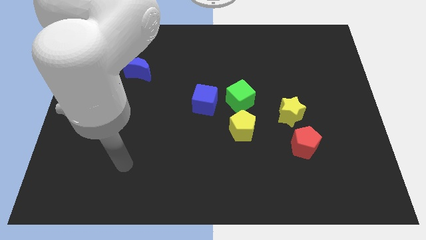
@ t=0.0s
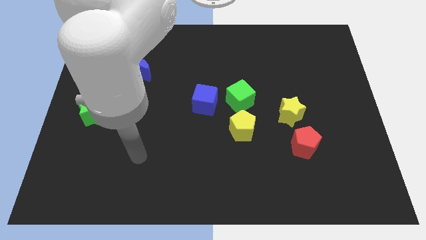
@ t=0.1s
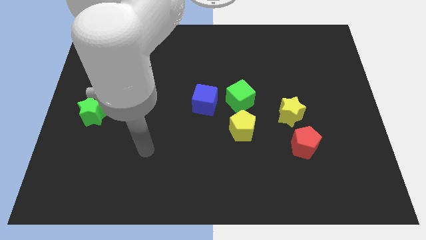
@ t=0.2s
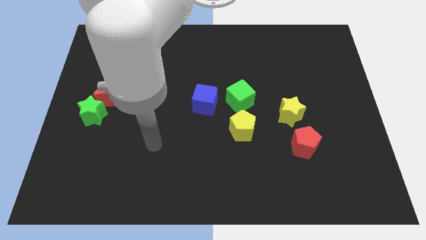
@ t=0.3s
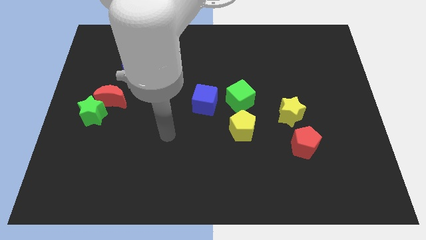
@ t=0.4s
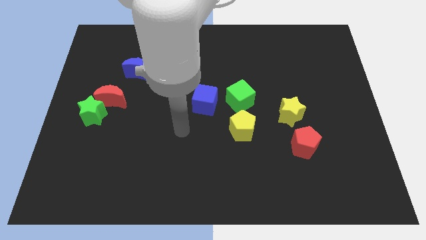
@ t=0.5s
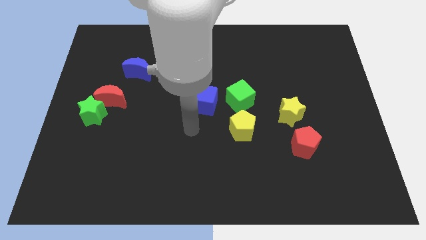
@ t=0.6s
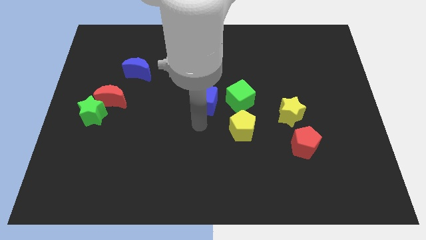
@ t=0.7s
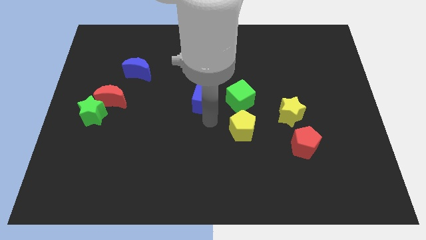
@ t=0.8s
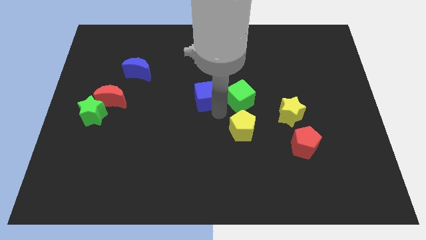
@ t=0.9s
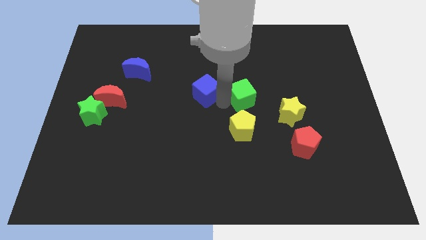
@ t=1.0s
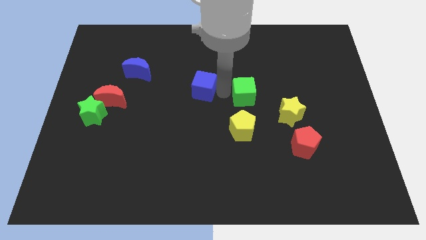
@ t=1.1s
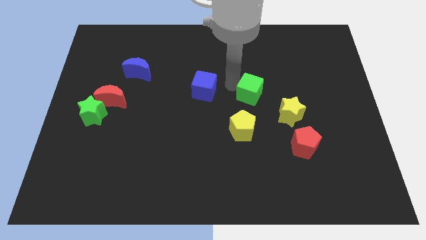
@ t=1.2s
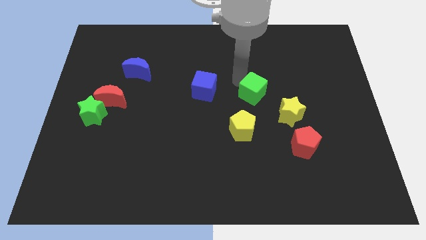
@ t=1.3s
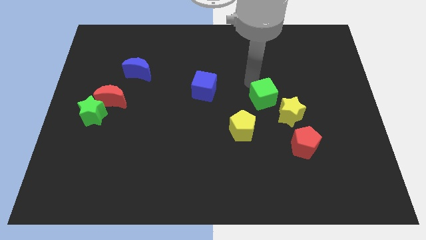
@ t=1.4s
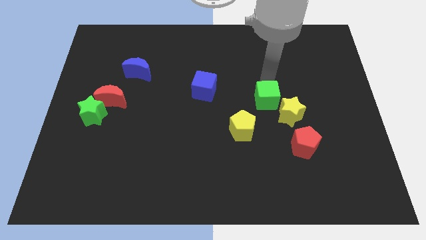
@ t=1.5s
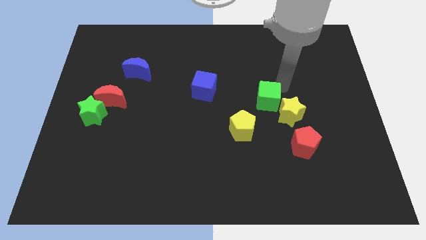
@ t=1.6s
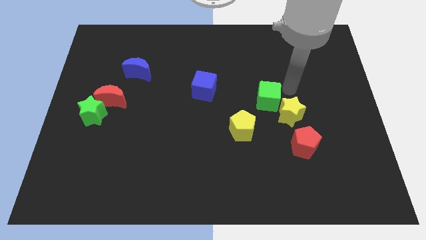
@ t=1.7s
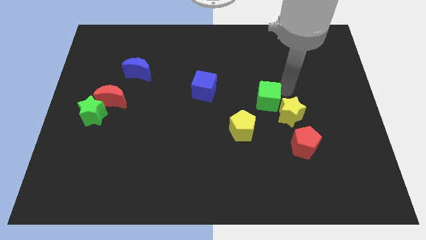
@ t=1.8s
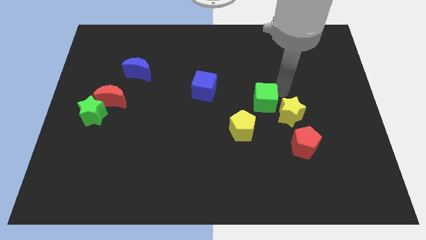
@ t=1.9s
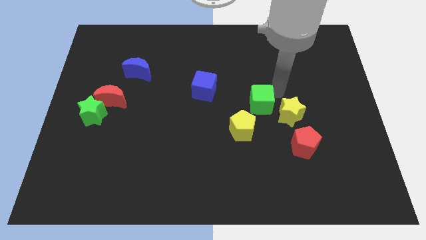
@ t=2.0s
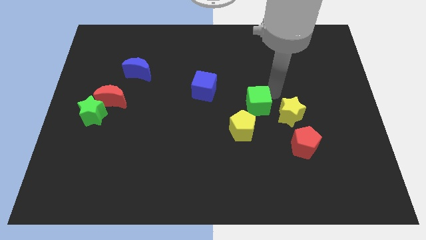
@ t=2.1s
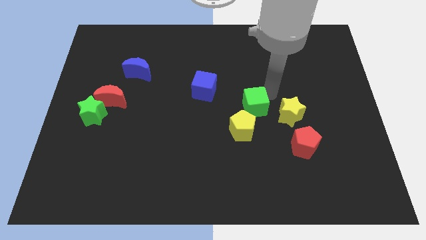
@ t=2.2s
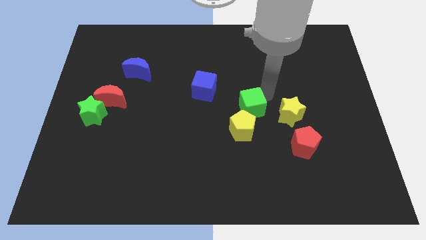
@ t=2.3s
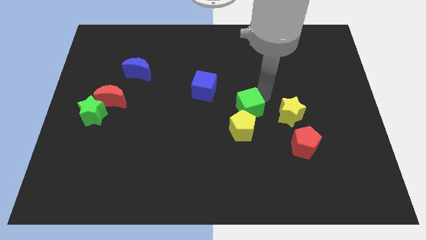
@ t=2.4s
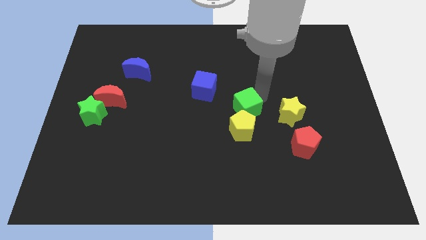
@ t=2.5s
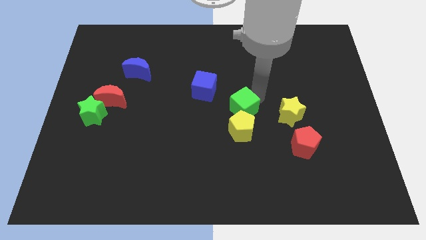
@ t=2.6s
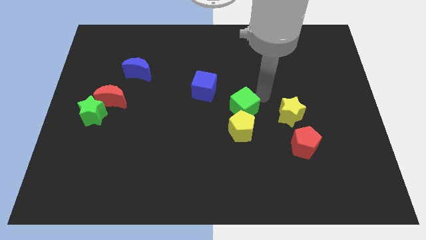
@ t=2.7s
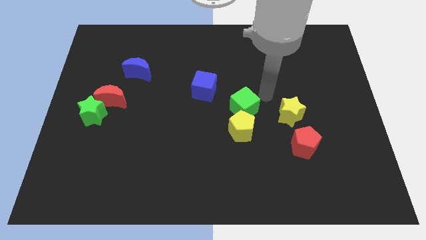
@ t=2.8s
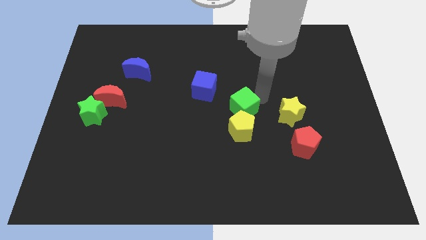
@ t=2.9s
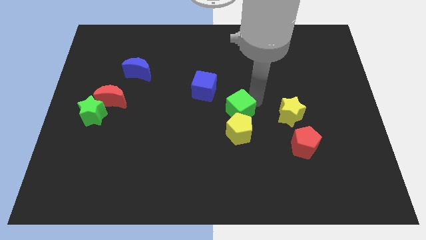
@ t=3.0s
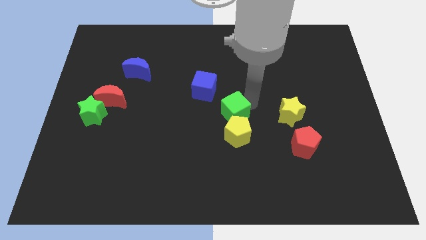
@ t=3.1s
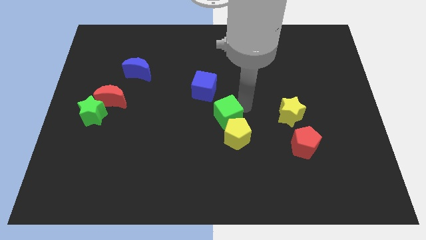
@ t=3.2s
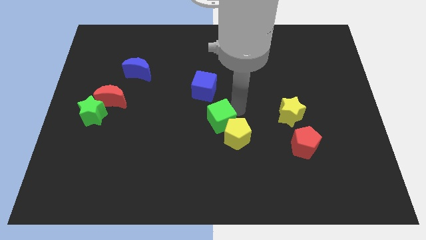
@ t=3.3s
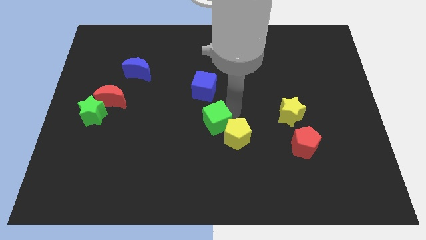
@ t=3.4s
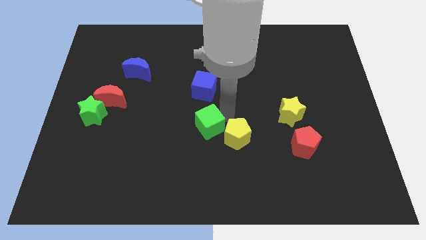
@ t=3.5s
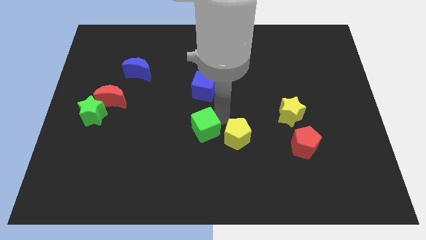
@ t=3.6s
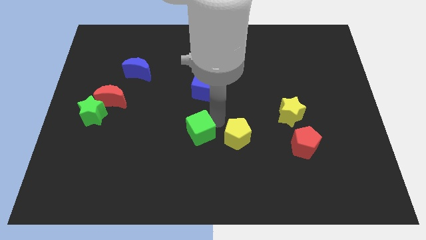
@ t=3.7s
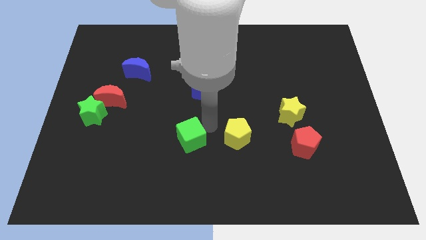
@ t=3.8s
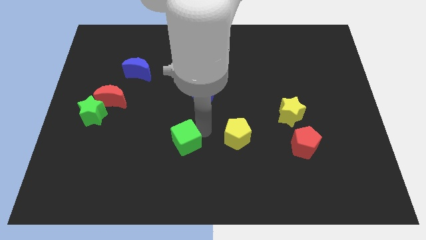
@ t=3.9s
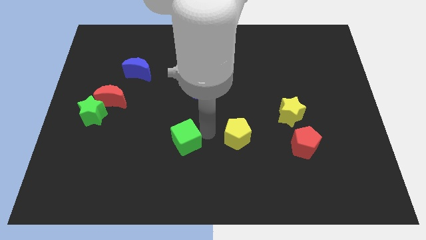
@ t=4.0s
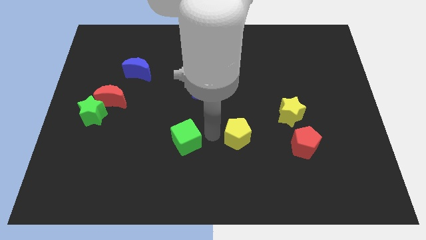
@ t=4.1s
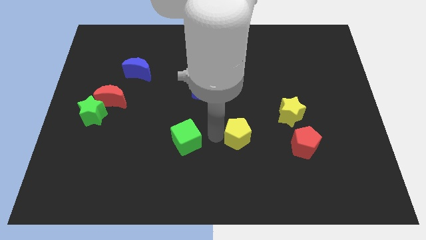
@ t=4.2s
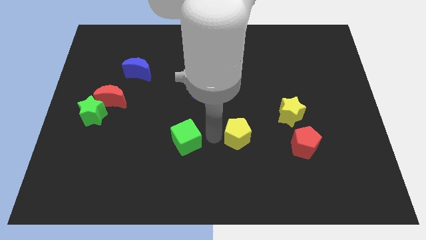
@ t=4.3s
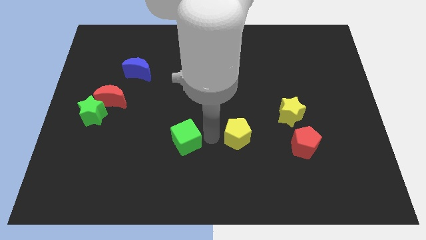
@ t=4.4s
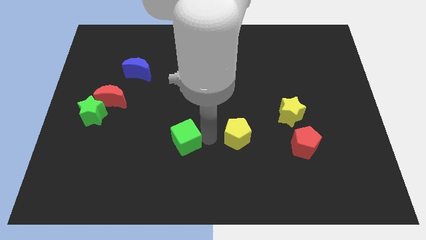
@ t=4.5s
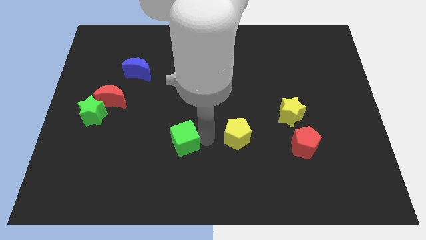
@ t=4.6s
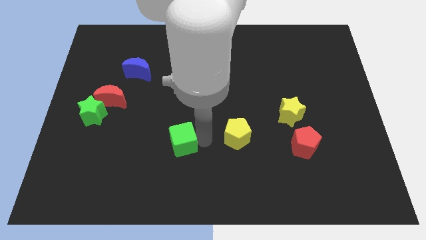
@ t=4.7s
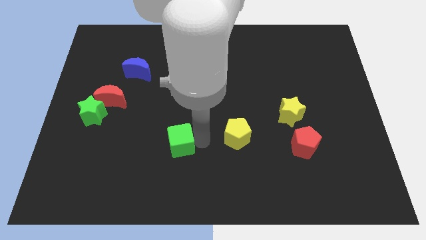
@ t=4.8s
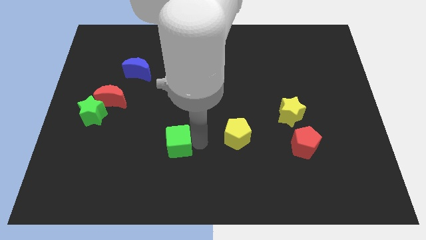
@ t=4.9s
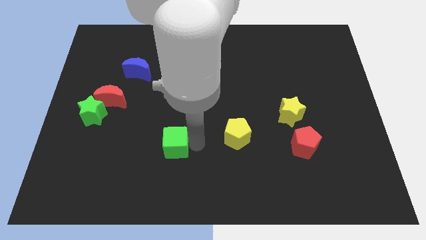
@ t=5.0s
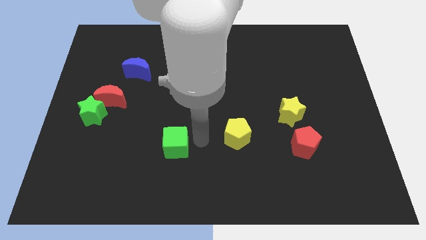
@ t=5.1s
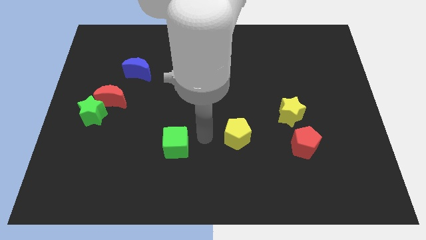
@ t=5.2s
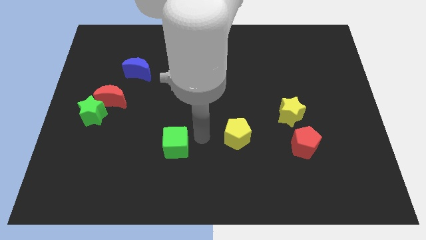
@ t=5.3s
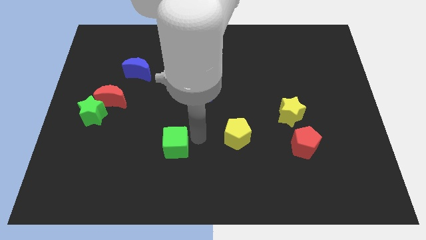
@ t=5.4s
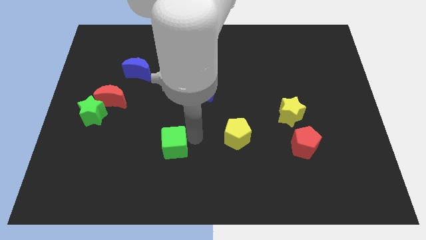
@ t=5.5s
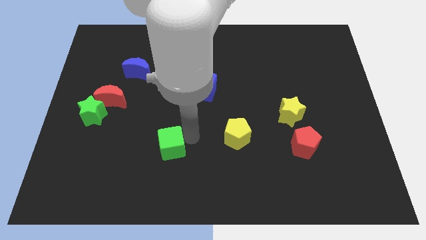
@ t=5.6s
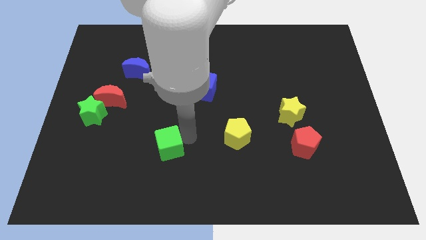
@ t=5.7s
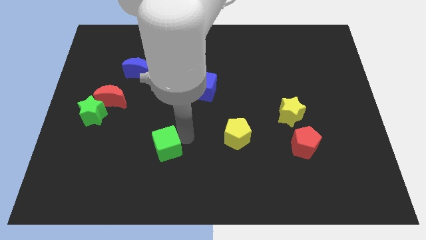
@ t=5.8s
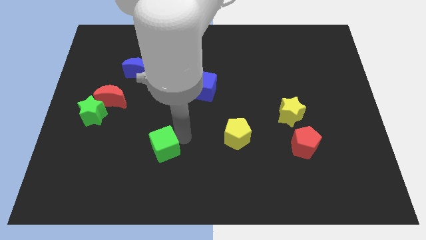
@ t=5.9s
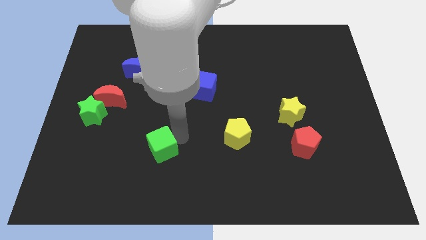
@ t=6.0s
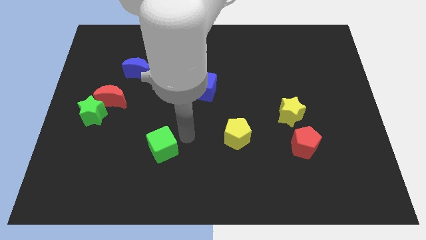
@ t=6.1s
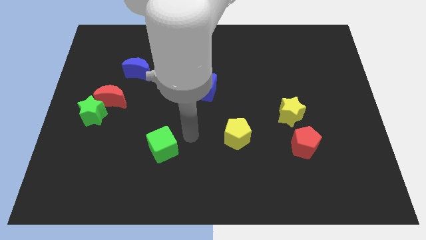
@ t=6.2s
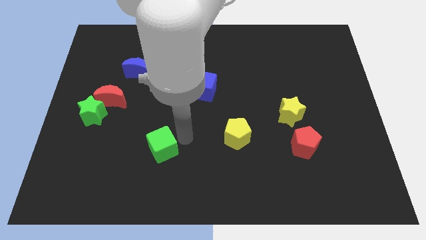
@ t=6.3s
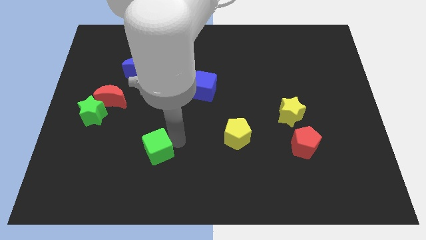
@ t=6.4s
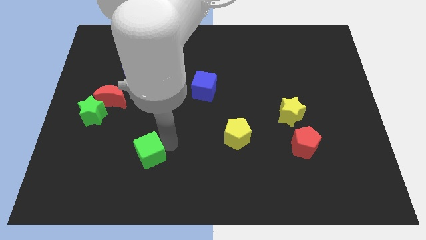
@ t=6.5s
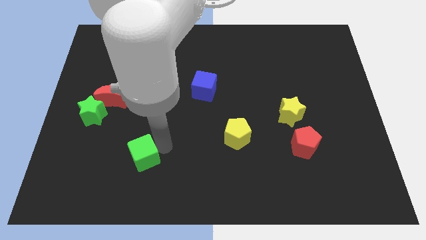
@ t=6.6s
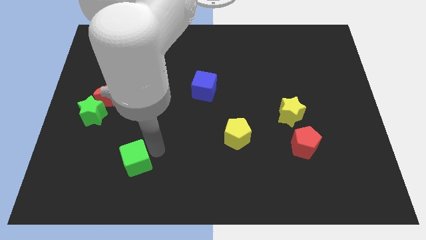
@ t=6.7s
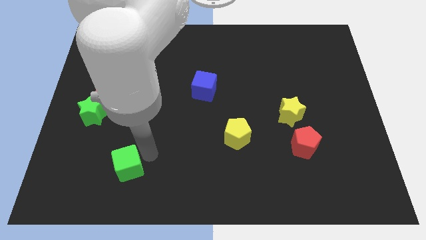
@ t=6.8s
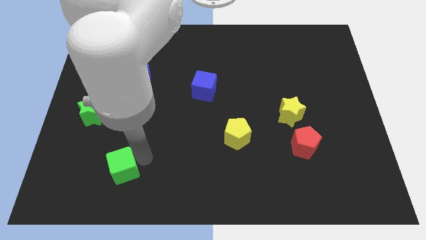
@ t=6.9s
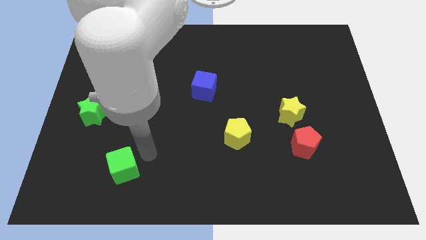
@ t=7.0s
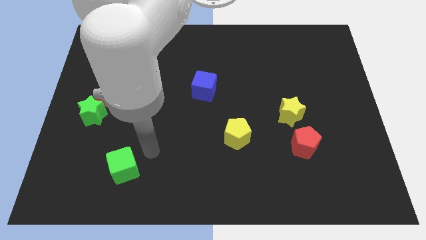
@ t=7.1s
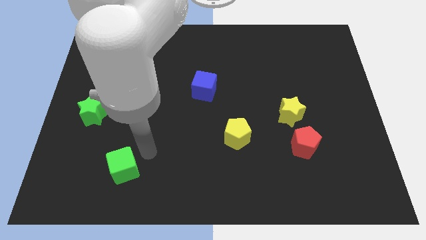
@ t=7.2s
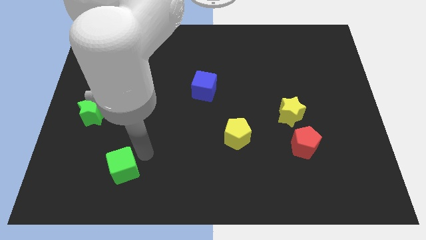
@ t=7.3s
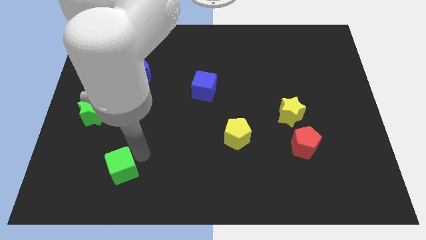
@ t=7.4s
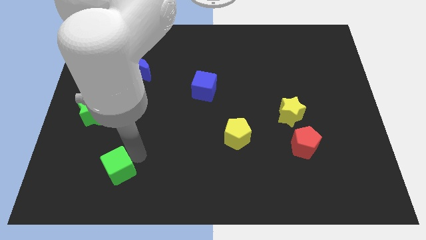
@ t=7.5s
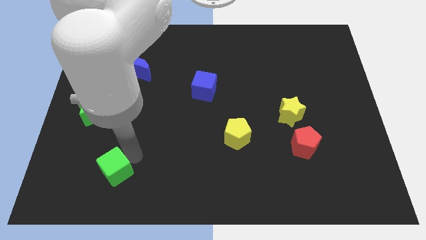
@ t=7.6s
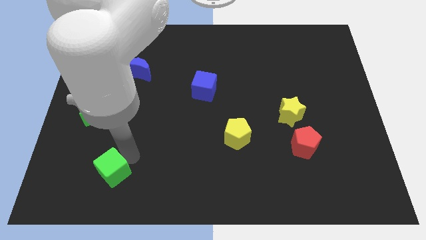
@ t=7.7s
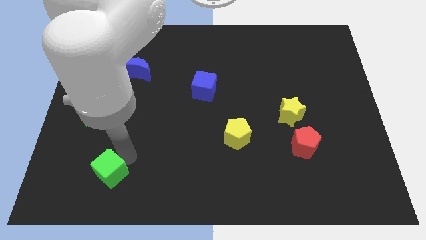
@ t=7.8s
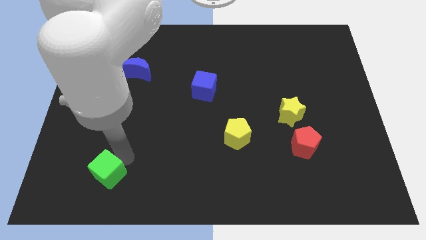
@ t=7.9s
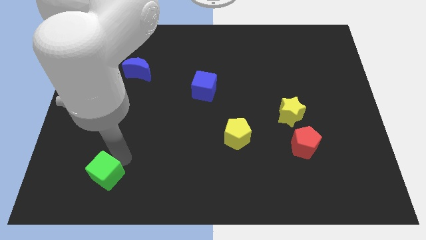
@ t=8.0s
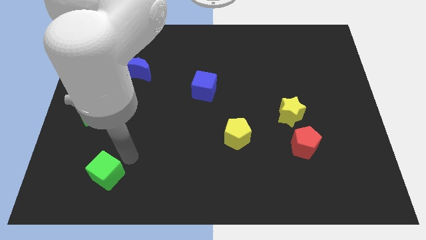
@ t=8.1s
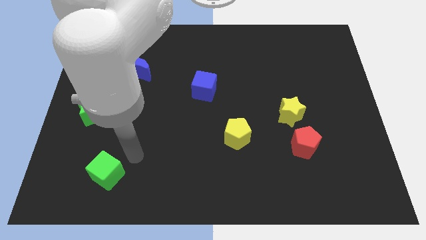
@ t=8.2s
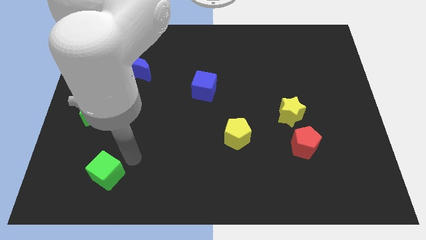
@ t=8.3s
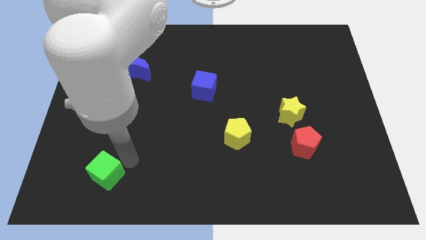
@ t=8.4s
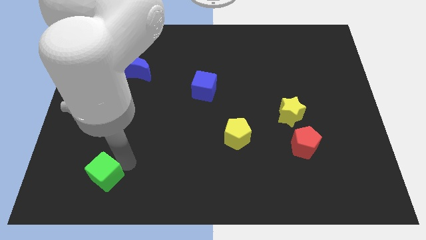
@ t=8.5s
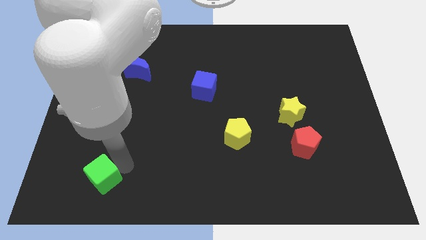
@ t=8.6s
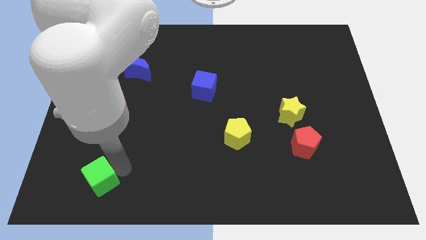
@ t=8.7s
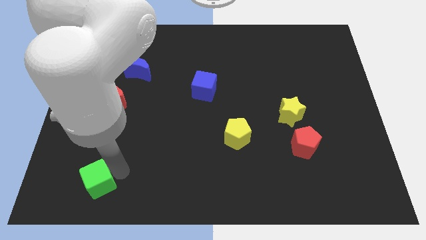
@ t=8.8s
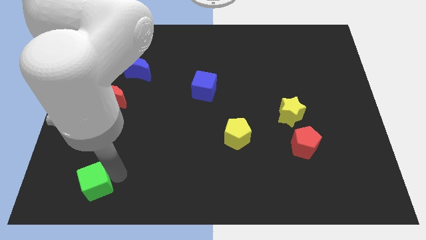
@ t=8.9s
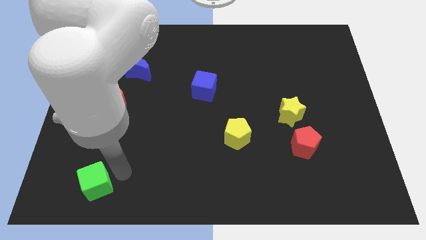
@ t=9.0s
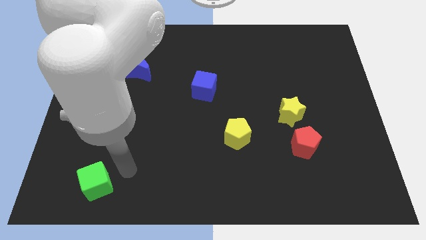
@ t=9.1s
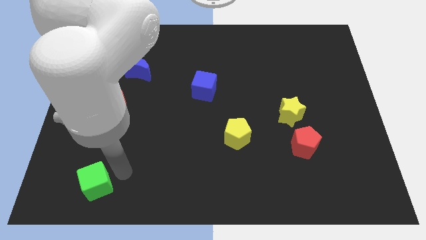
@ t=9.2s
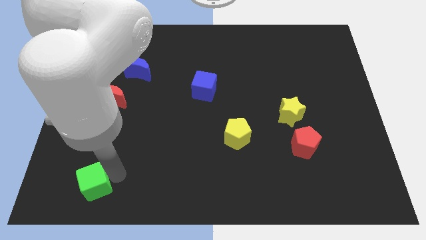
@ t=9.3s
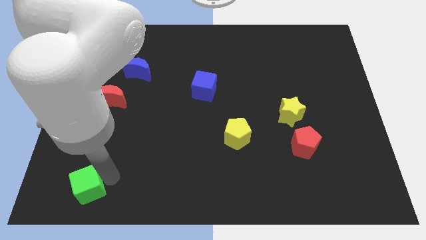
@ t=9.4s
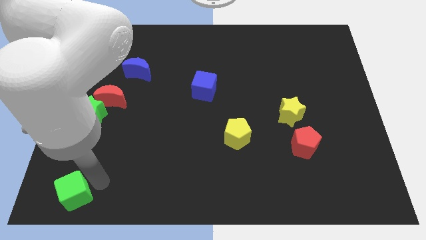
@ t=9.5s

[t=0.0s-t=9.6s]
put the green cube to the lower left corner
